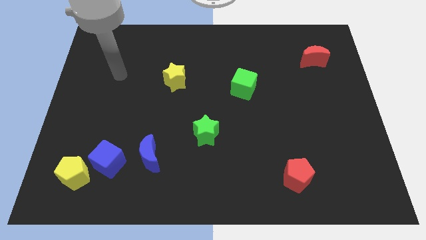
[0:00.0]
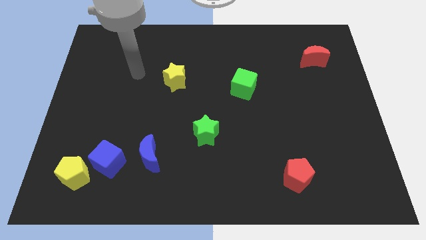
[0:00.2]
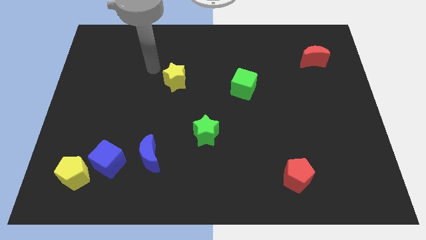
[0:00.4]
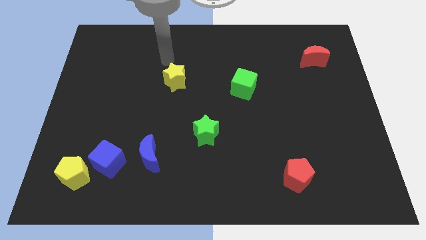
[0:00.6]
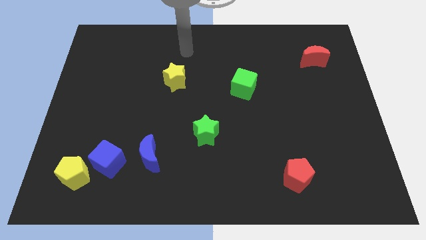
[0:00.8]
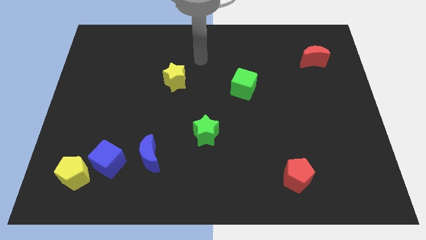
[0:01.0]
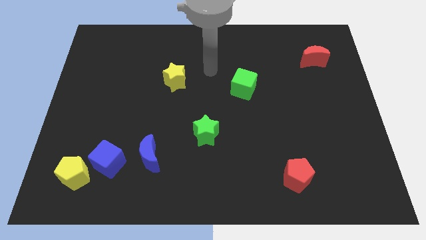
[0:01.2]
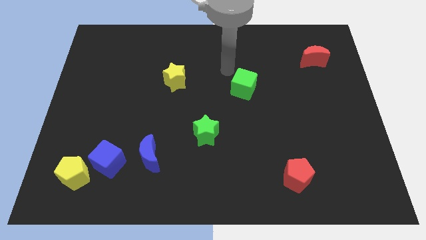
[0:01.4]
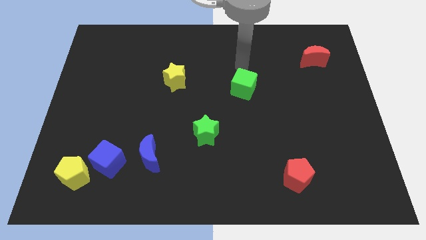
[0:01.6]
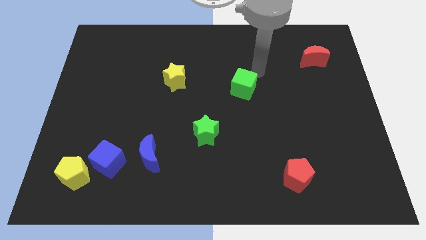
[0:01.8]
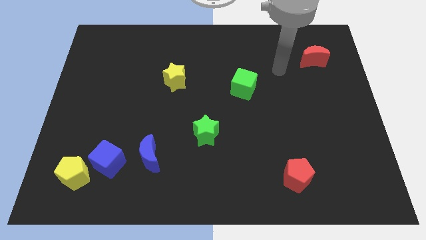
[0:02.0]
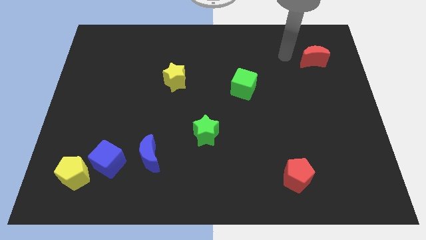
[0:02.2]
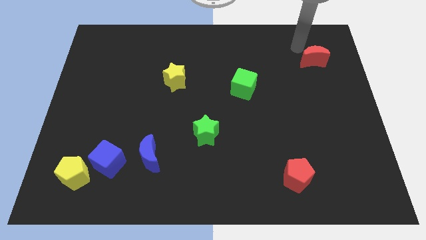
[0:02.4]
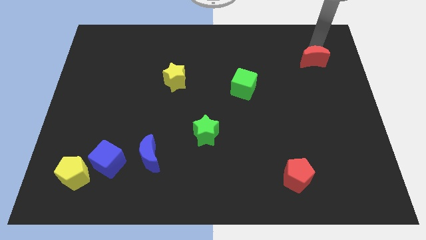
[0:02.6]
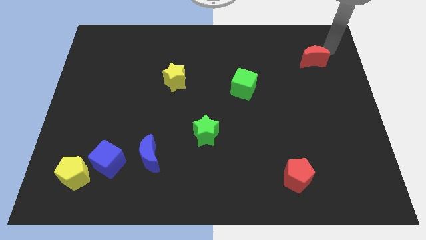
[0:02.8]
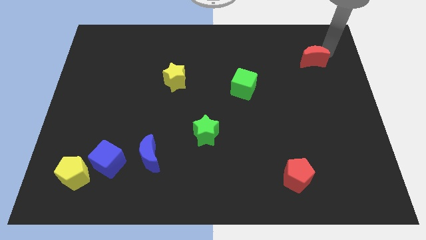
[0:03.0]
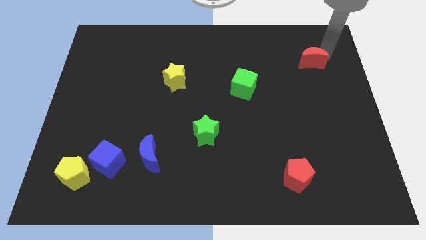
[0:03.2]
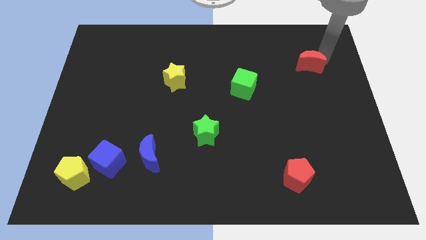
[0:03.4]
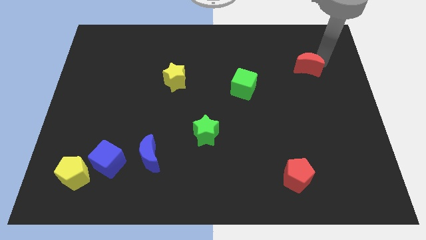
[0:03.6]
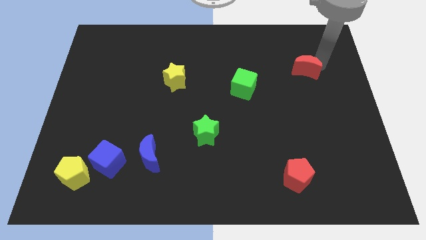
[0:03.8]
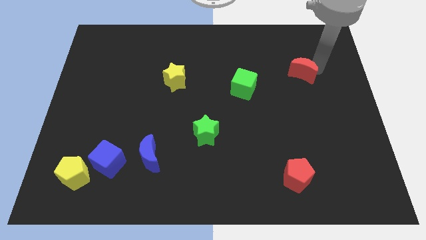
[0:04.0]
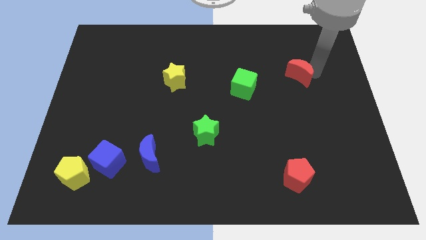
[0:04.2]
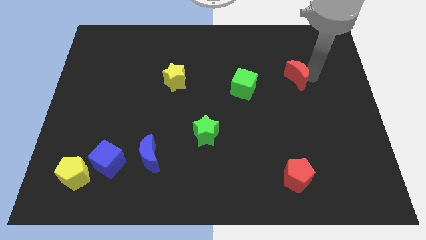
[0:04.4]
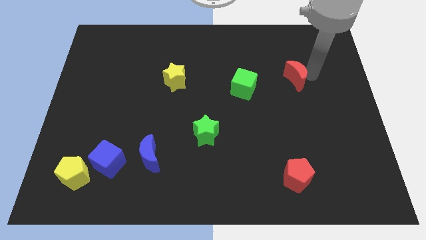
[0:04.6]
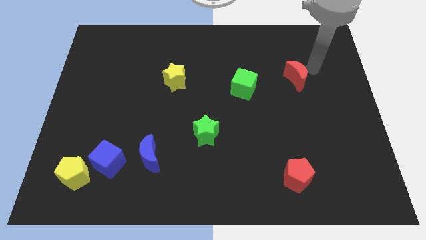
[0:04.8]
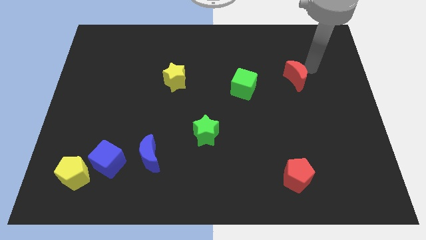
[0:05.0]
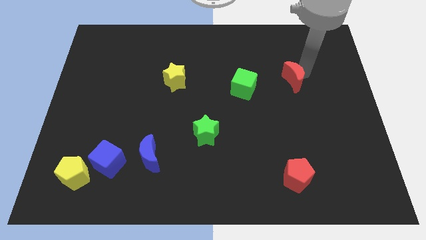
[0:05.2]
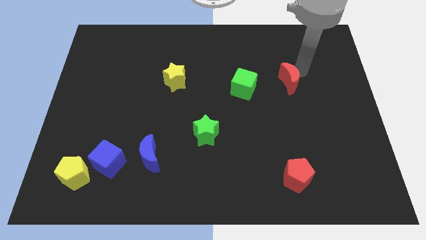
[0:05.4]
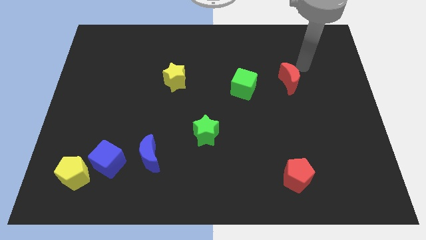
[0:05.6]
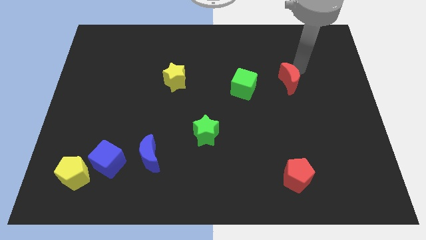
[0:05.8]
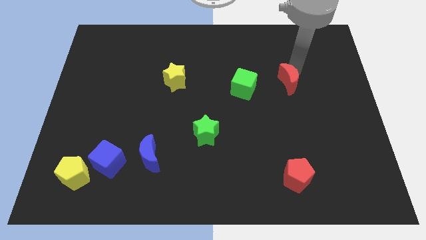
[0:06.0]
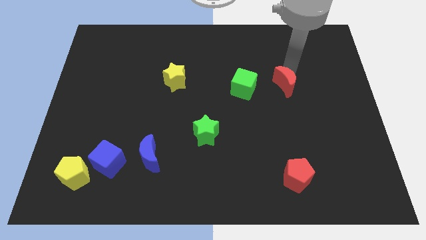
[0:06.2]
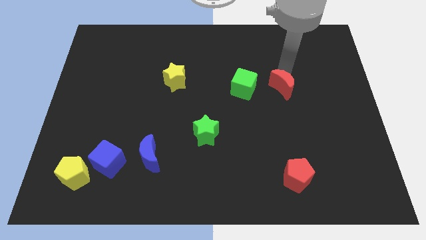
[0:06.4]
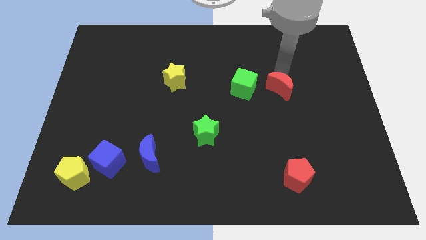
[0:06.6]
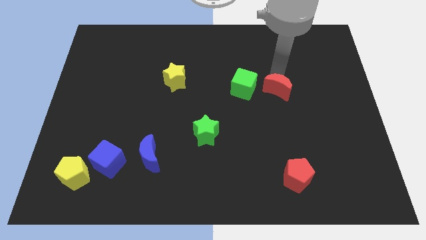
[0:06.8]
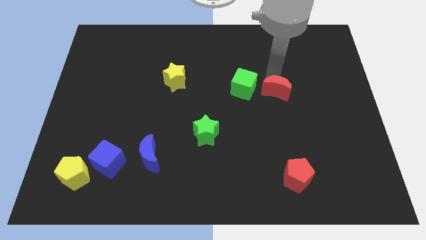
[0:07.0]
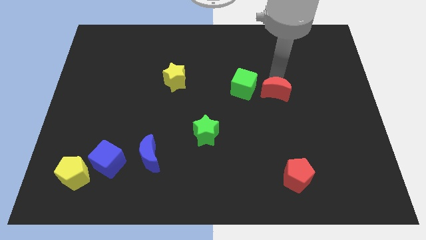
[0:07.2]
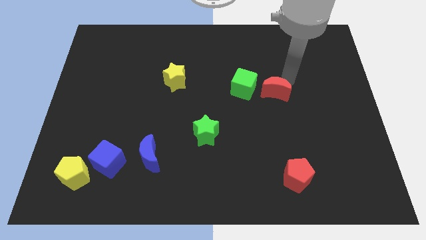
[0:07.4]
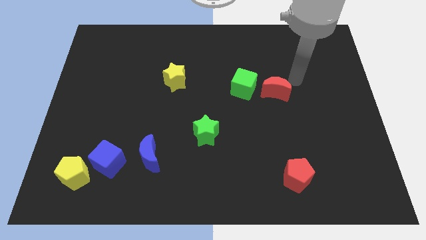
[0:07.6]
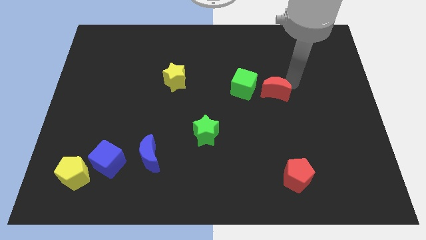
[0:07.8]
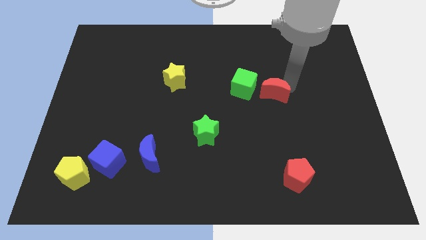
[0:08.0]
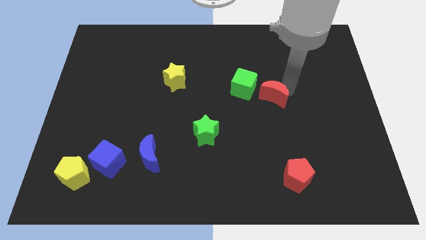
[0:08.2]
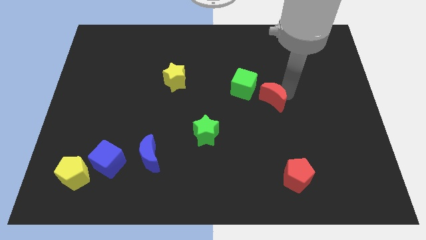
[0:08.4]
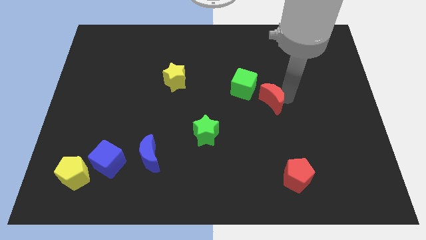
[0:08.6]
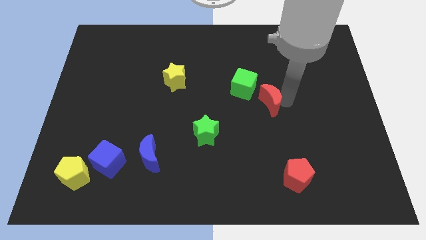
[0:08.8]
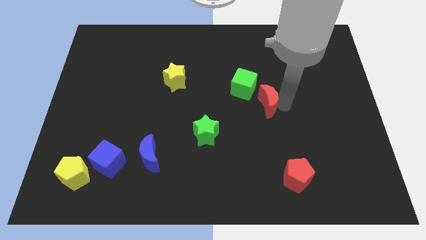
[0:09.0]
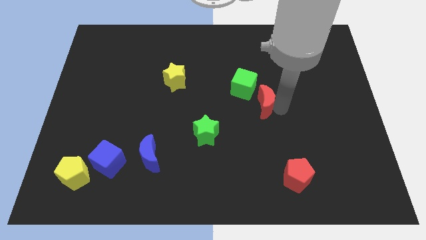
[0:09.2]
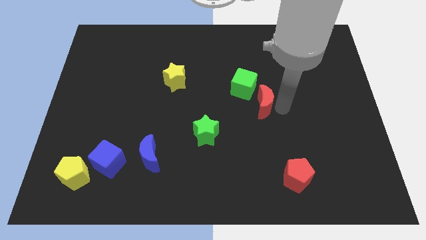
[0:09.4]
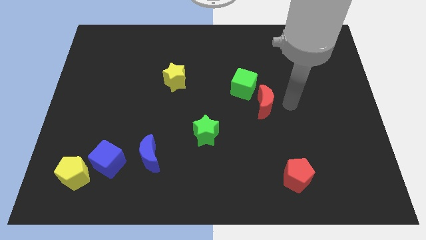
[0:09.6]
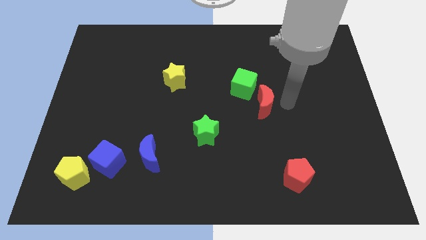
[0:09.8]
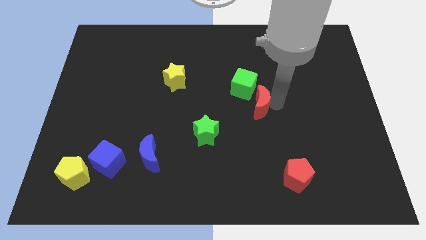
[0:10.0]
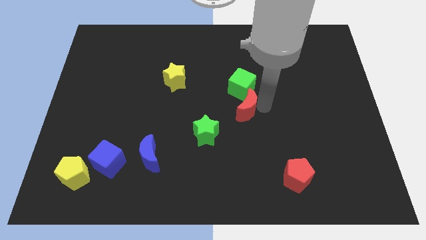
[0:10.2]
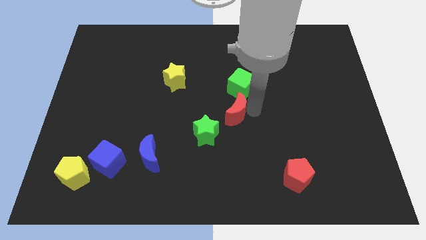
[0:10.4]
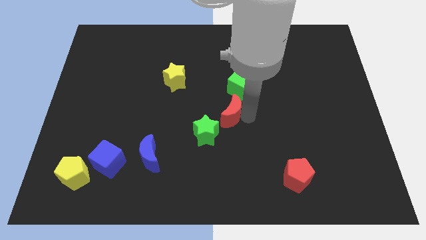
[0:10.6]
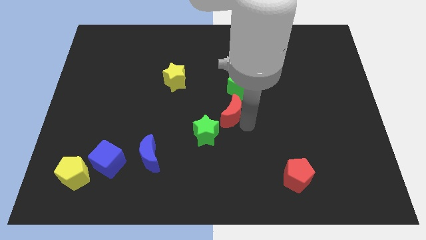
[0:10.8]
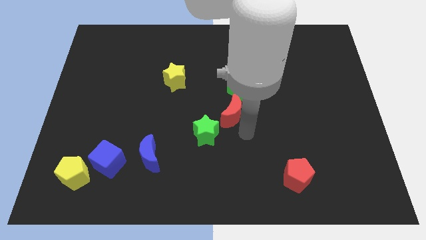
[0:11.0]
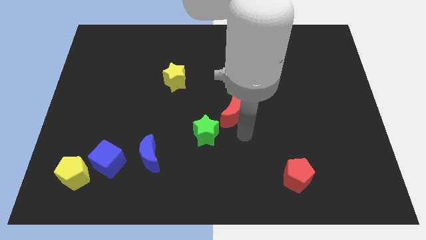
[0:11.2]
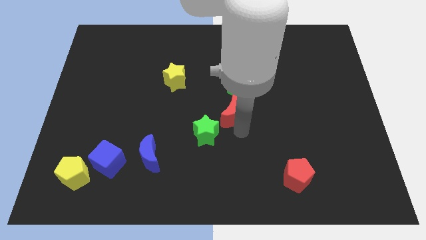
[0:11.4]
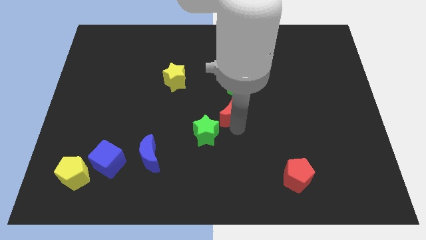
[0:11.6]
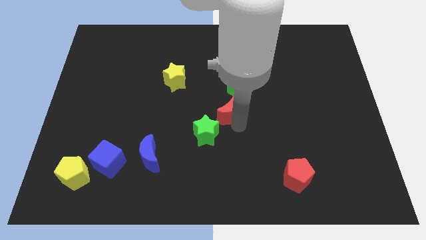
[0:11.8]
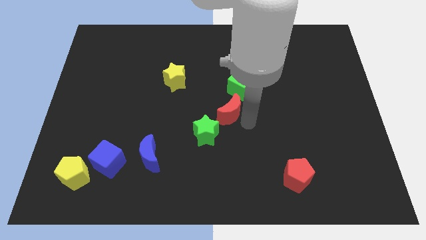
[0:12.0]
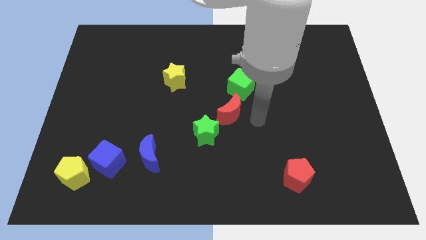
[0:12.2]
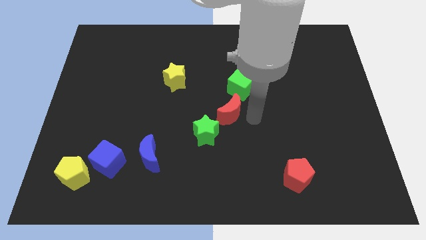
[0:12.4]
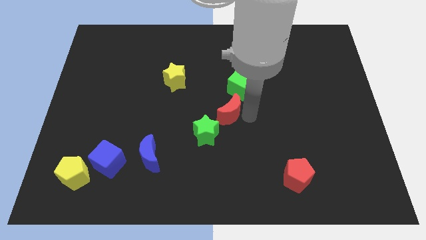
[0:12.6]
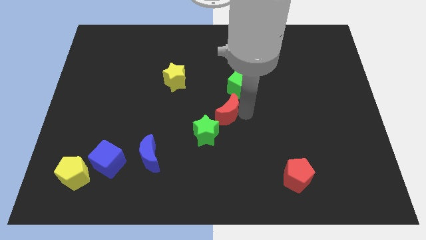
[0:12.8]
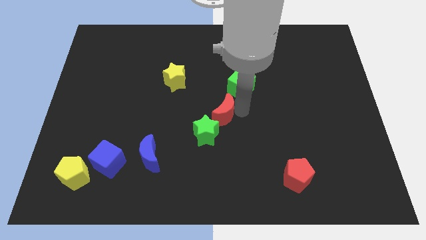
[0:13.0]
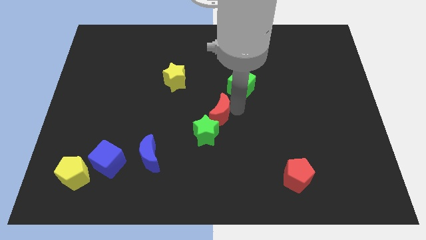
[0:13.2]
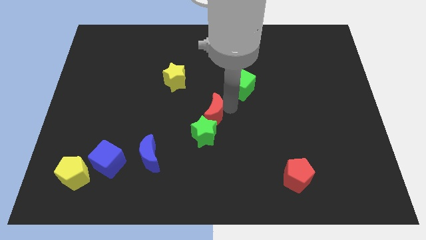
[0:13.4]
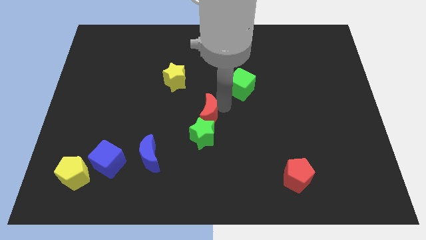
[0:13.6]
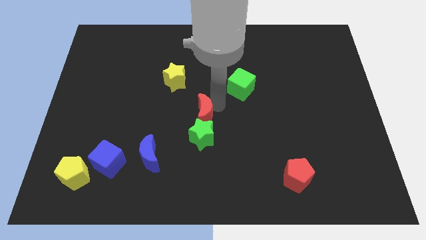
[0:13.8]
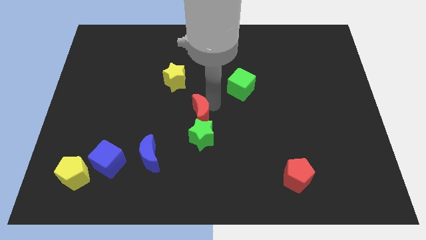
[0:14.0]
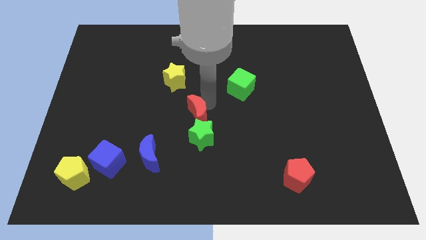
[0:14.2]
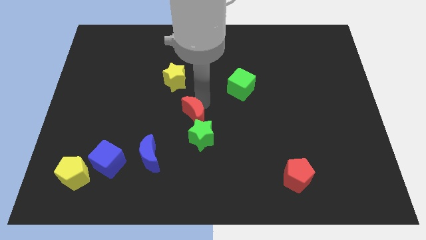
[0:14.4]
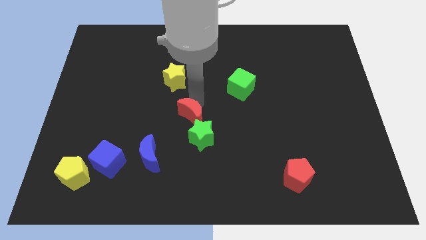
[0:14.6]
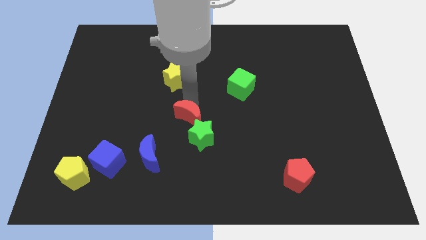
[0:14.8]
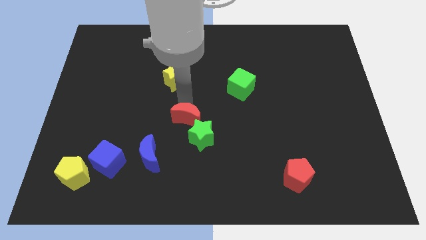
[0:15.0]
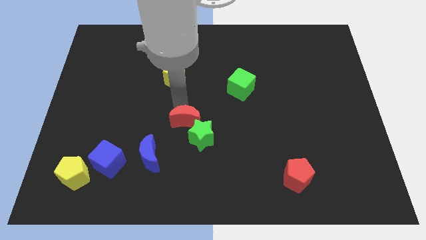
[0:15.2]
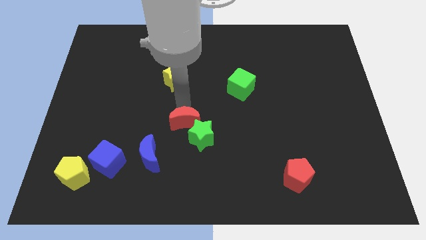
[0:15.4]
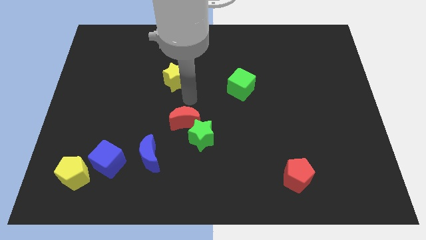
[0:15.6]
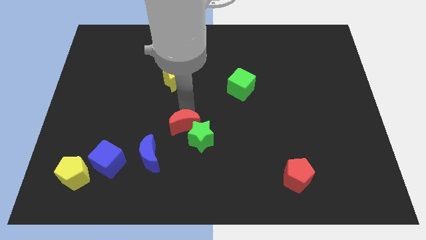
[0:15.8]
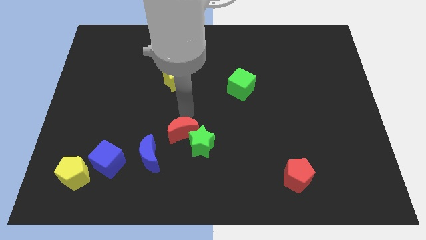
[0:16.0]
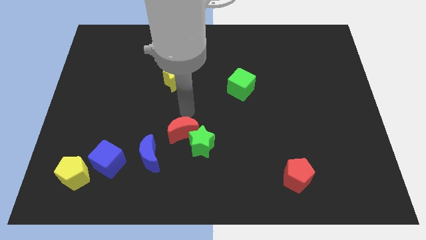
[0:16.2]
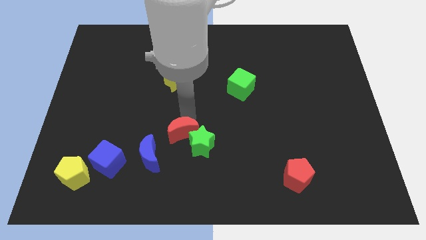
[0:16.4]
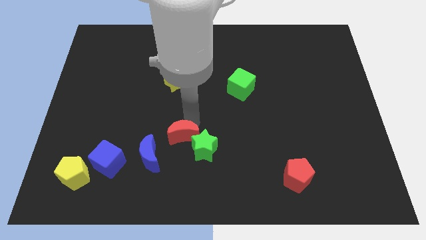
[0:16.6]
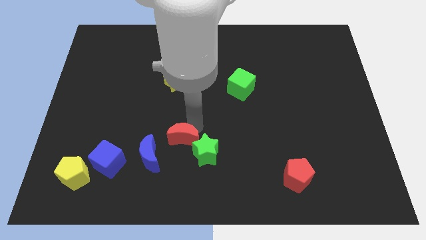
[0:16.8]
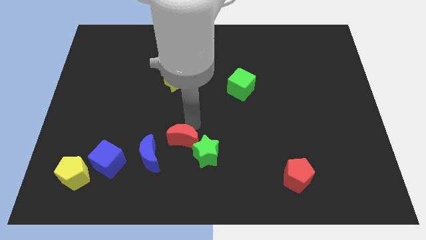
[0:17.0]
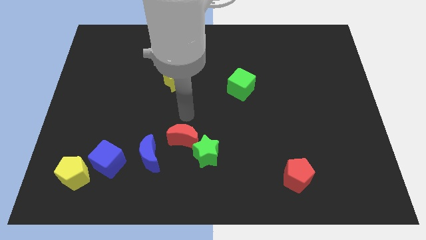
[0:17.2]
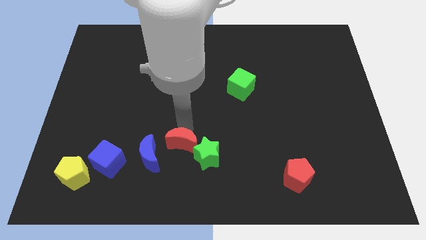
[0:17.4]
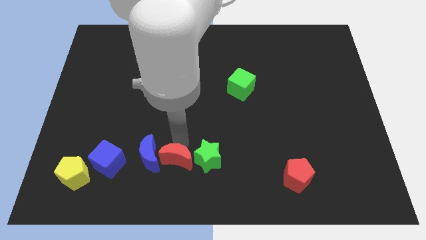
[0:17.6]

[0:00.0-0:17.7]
put the red moon to the bottom left side of the green star
